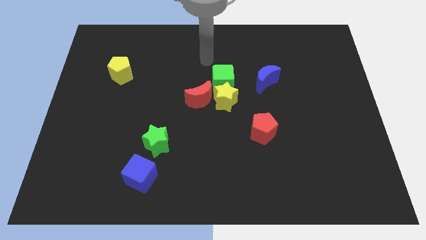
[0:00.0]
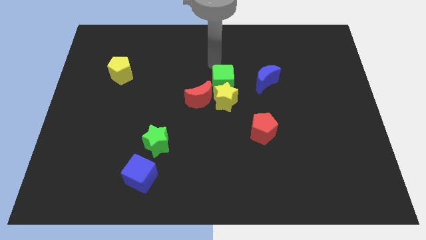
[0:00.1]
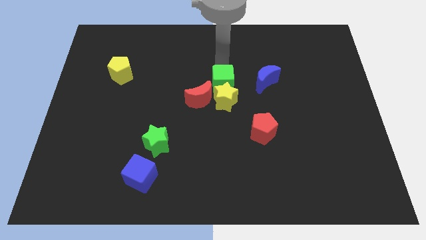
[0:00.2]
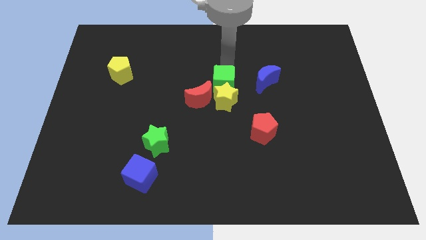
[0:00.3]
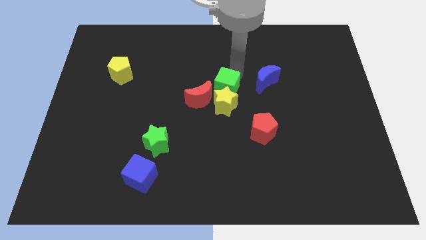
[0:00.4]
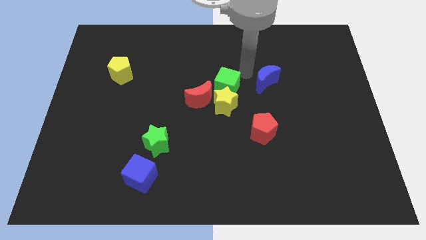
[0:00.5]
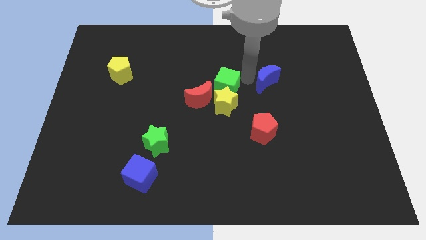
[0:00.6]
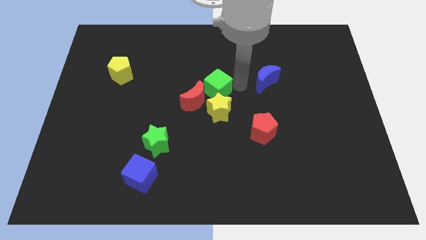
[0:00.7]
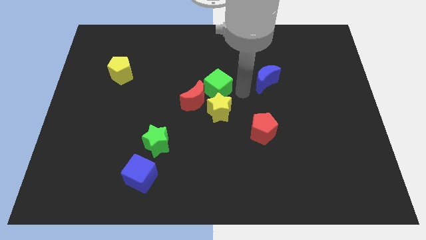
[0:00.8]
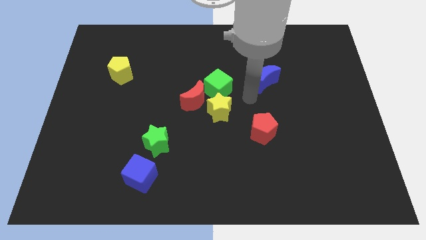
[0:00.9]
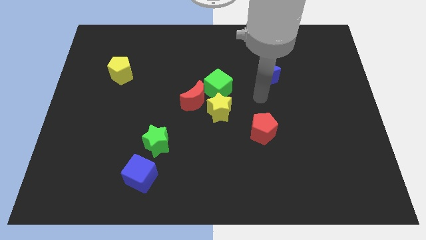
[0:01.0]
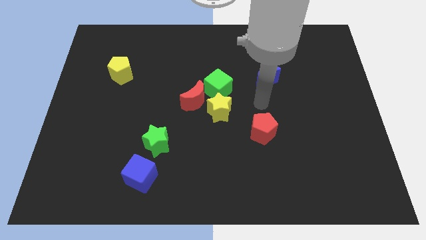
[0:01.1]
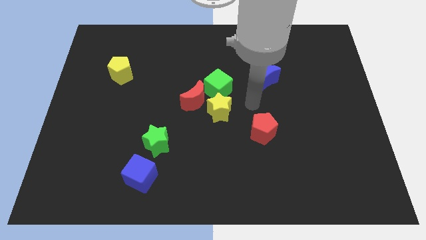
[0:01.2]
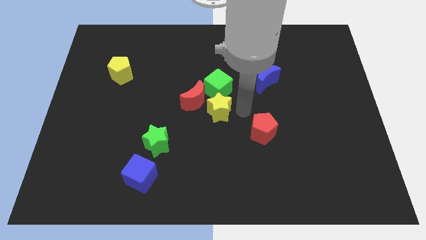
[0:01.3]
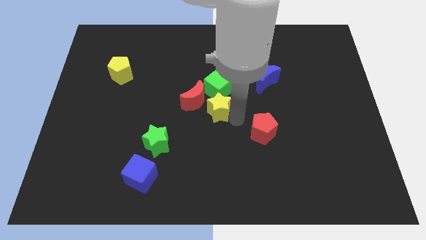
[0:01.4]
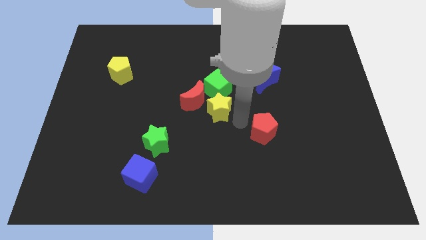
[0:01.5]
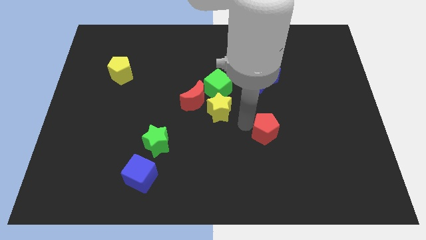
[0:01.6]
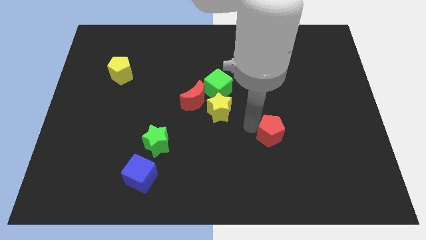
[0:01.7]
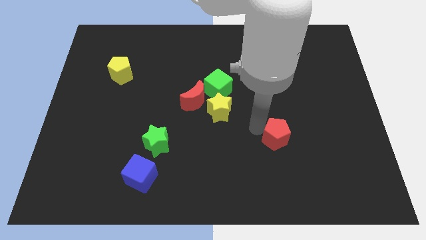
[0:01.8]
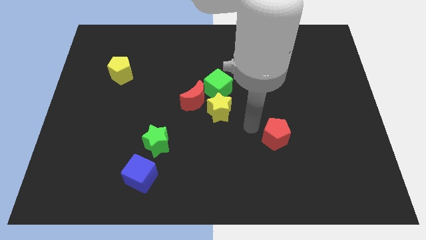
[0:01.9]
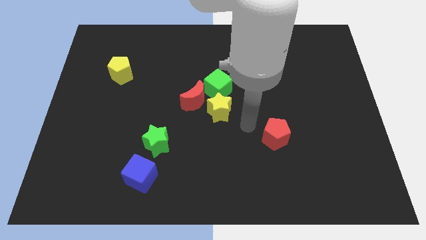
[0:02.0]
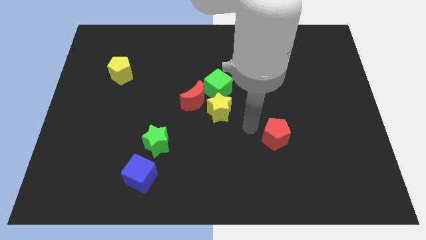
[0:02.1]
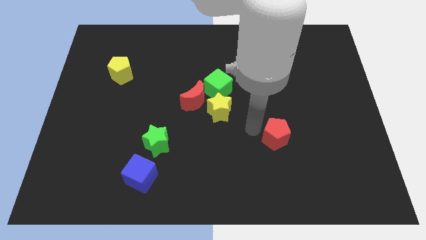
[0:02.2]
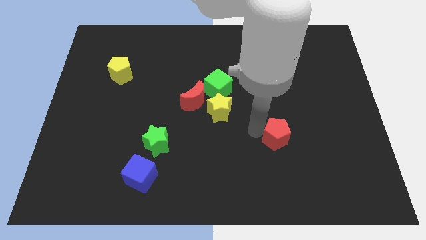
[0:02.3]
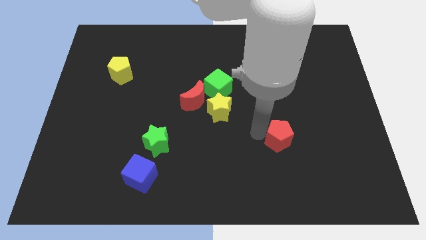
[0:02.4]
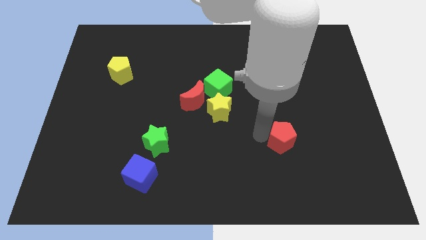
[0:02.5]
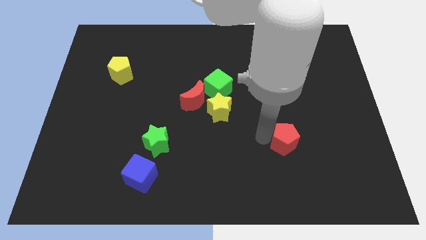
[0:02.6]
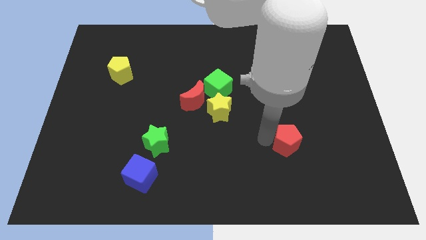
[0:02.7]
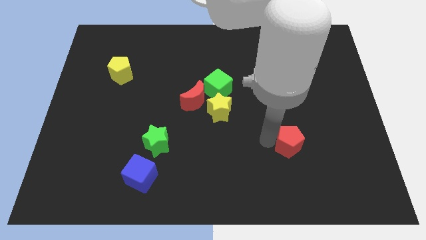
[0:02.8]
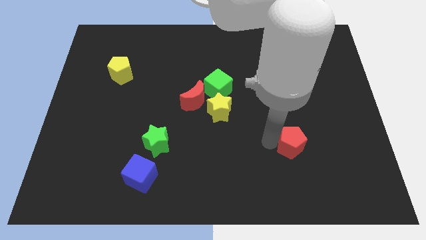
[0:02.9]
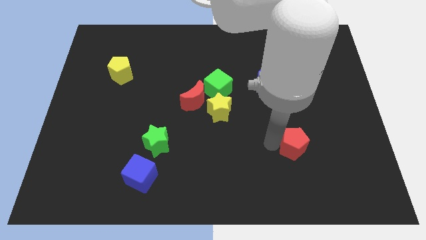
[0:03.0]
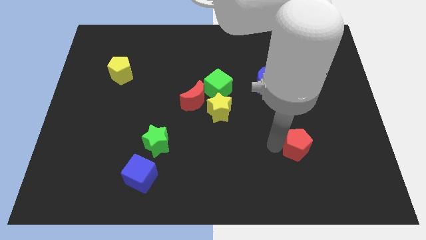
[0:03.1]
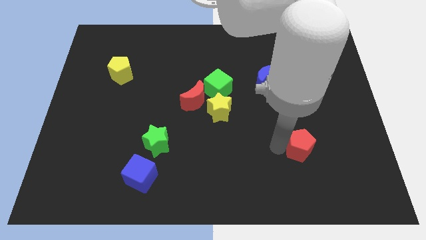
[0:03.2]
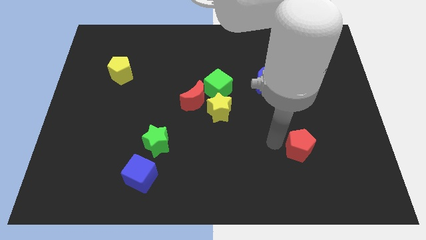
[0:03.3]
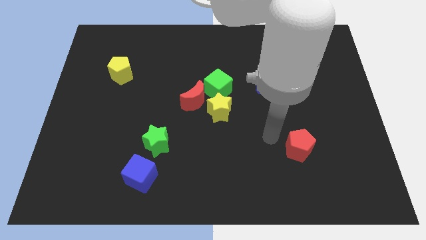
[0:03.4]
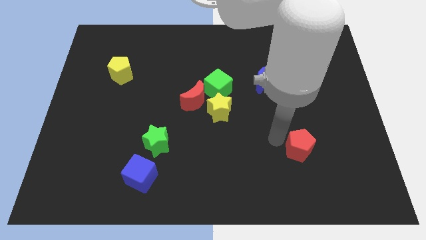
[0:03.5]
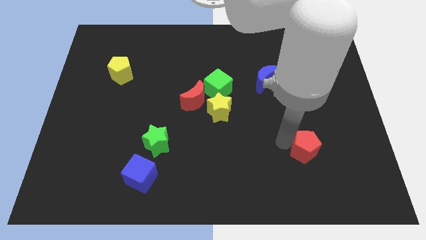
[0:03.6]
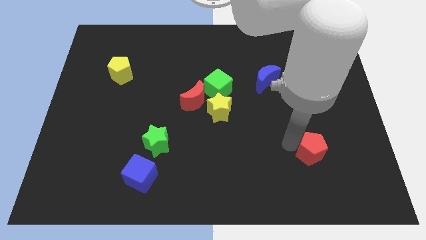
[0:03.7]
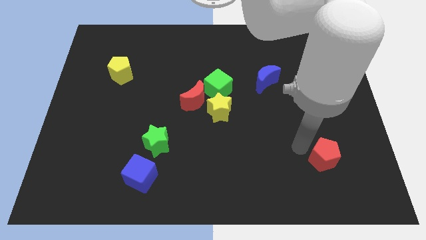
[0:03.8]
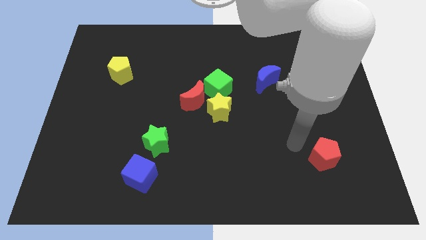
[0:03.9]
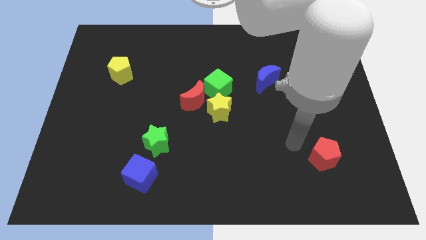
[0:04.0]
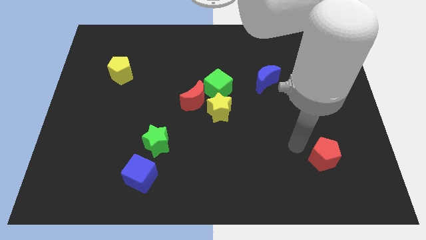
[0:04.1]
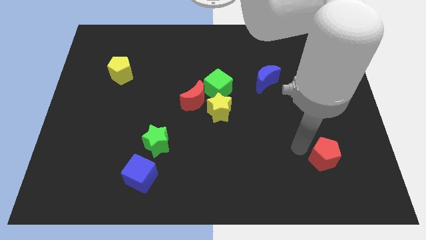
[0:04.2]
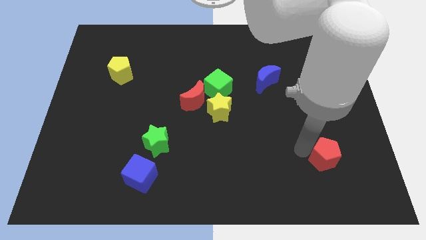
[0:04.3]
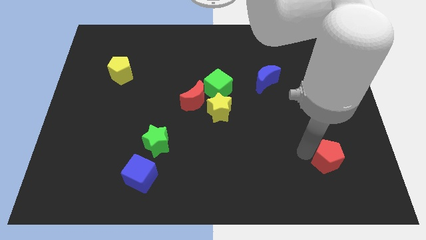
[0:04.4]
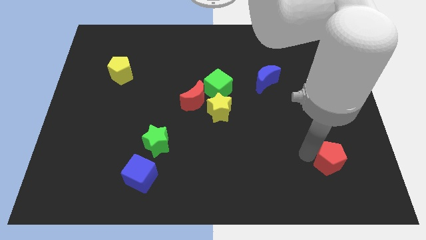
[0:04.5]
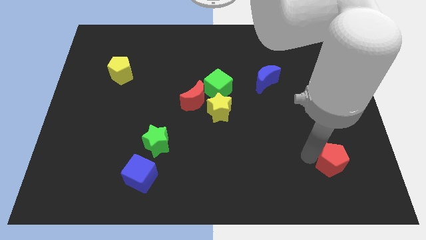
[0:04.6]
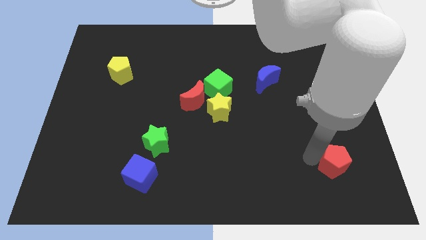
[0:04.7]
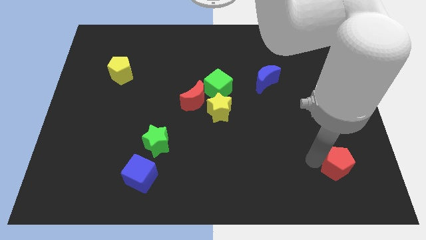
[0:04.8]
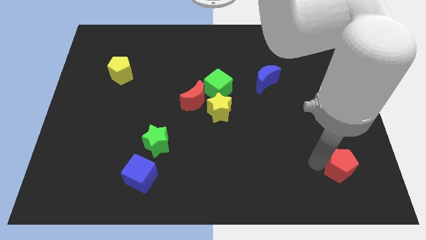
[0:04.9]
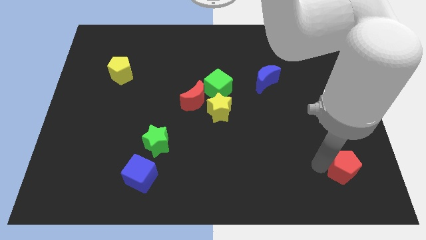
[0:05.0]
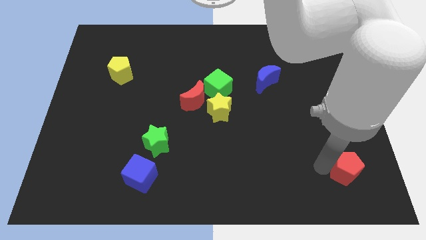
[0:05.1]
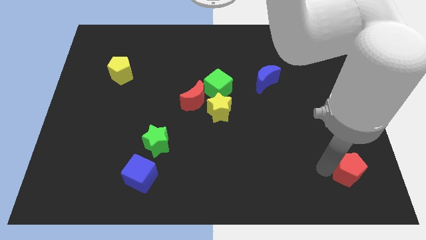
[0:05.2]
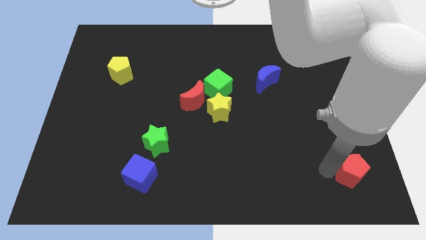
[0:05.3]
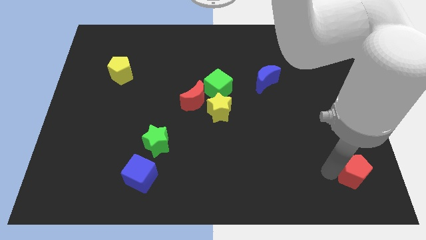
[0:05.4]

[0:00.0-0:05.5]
slide the red pentagon to the bottom right of the board

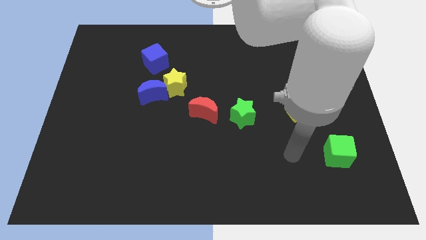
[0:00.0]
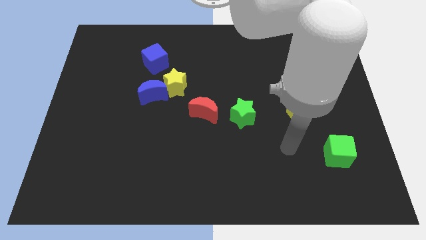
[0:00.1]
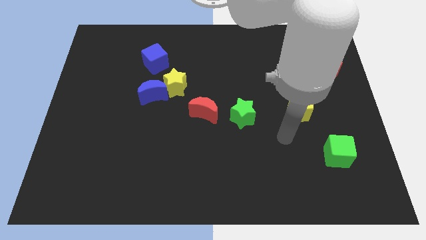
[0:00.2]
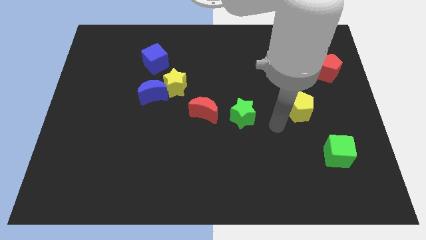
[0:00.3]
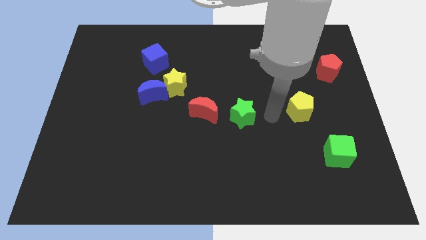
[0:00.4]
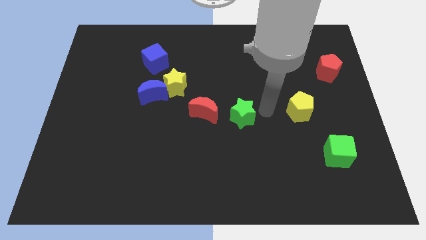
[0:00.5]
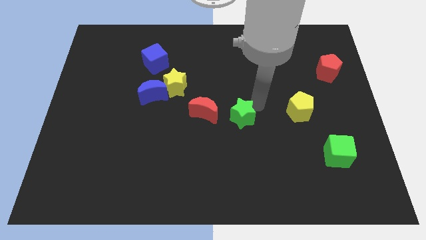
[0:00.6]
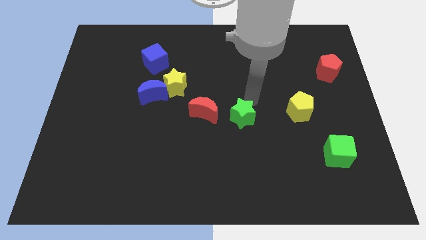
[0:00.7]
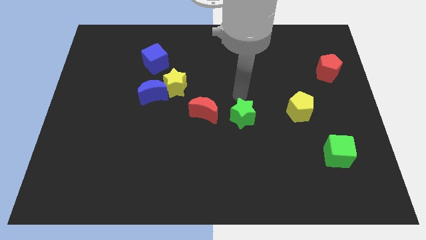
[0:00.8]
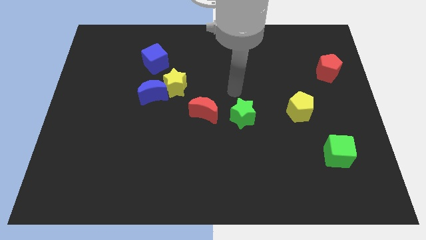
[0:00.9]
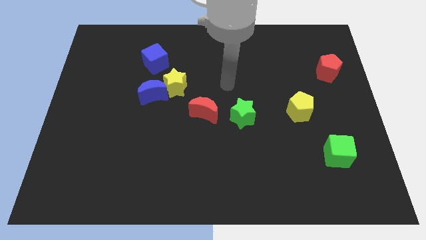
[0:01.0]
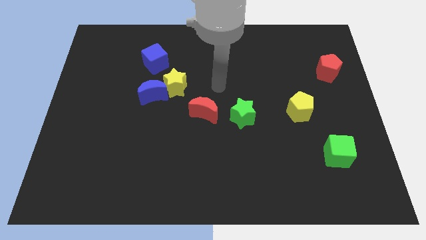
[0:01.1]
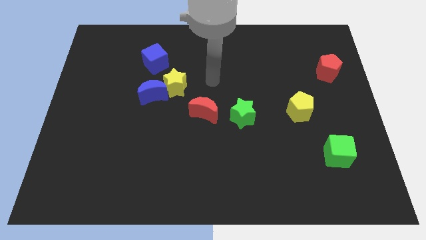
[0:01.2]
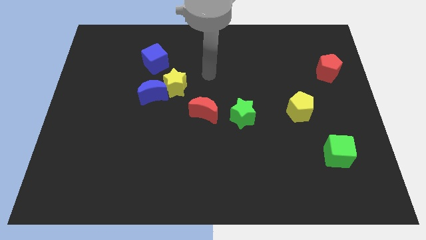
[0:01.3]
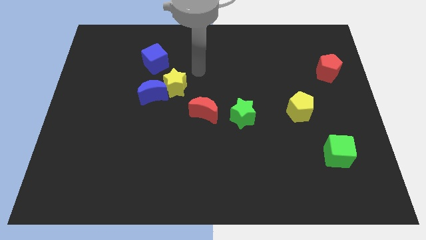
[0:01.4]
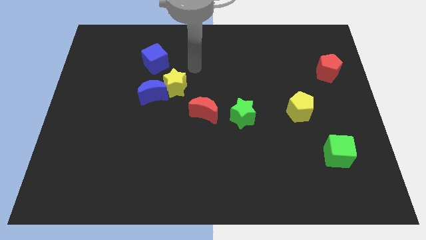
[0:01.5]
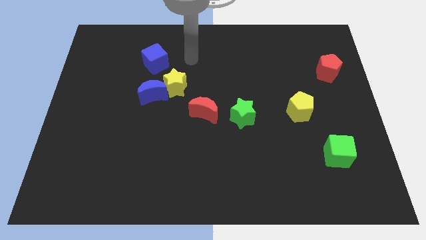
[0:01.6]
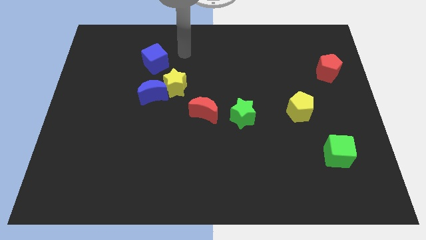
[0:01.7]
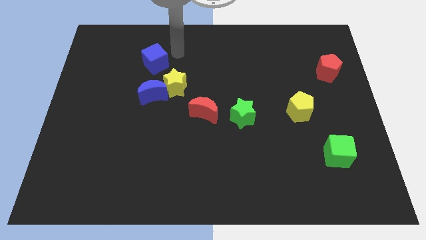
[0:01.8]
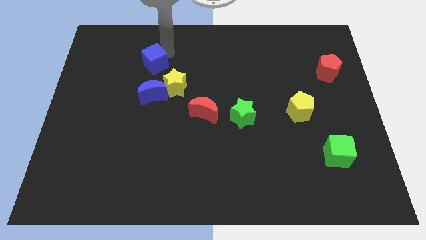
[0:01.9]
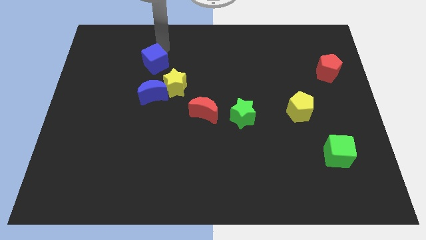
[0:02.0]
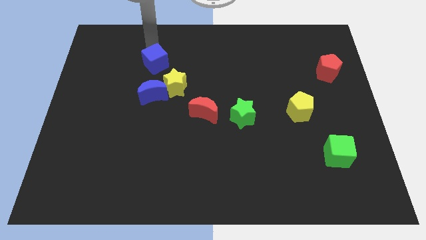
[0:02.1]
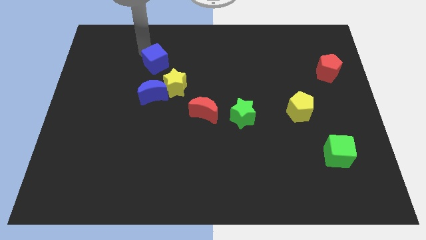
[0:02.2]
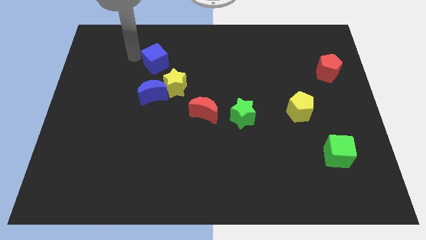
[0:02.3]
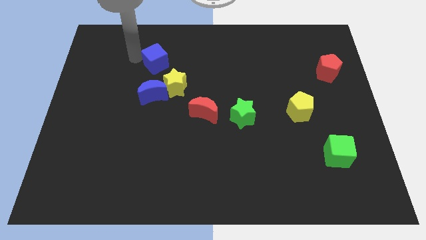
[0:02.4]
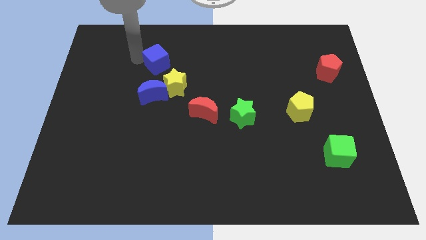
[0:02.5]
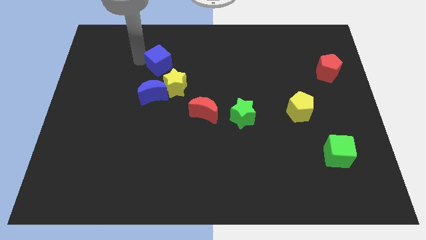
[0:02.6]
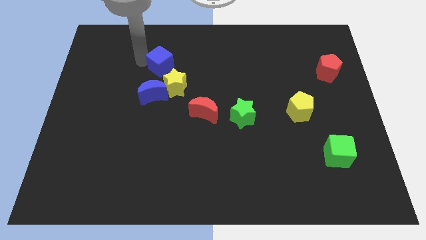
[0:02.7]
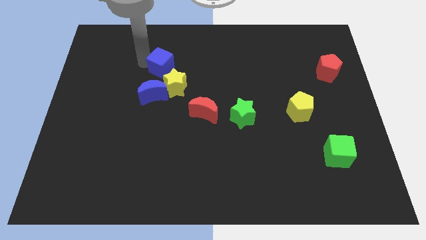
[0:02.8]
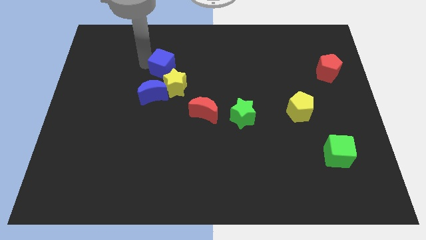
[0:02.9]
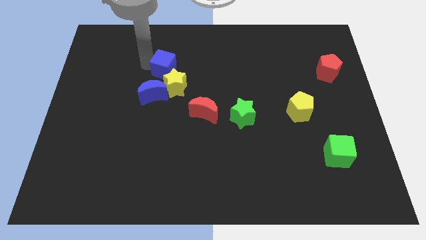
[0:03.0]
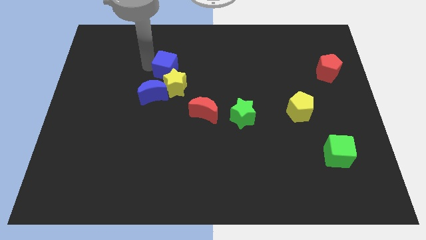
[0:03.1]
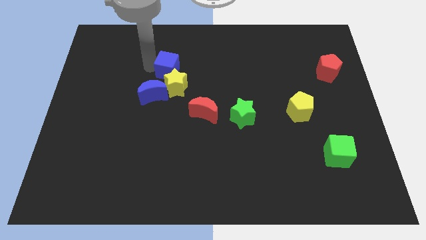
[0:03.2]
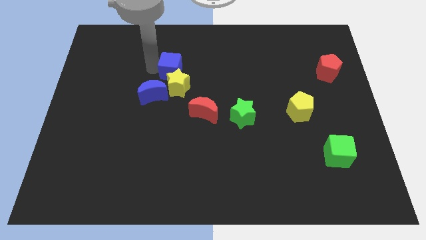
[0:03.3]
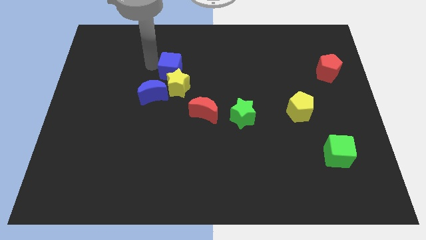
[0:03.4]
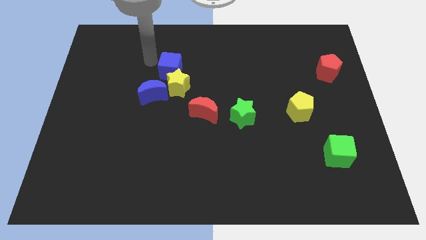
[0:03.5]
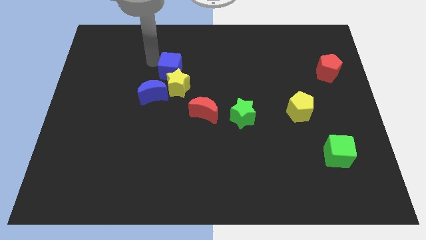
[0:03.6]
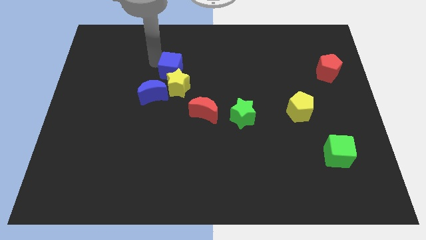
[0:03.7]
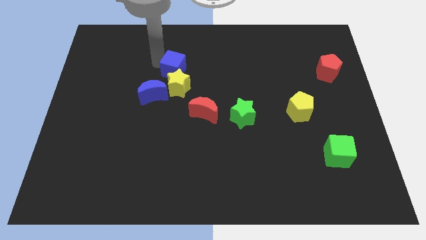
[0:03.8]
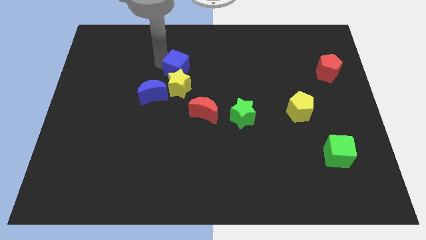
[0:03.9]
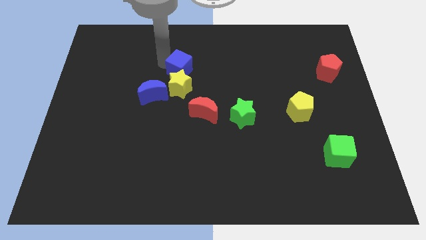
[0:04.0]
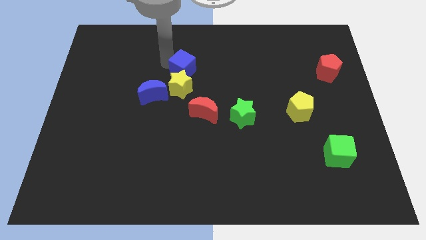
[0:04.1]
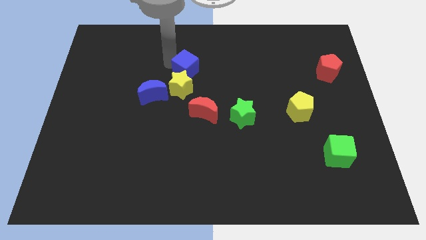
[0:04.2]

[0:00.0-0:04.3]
slide the blue cube to the middle
